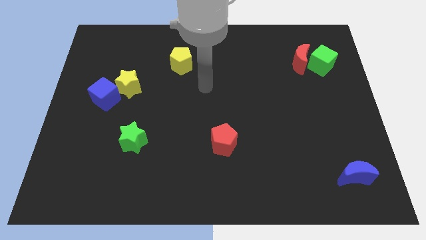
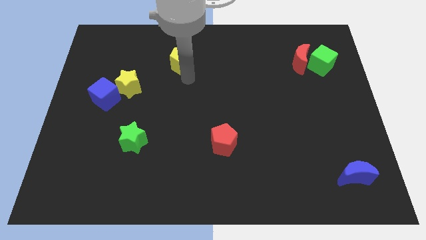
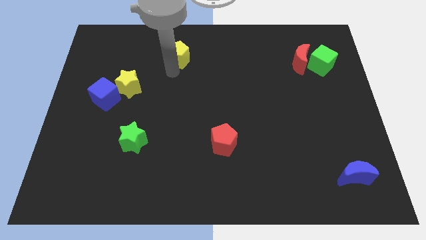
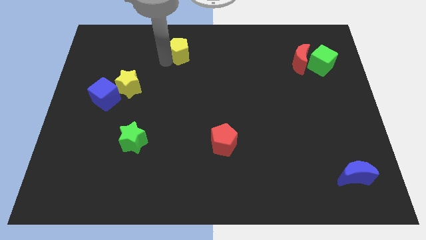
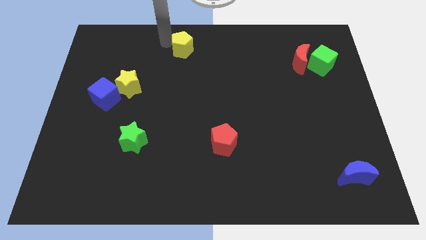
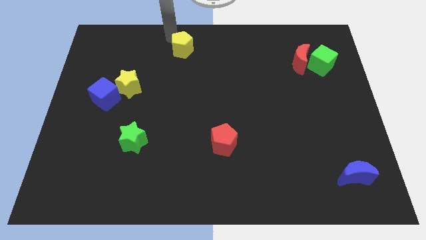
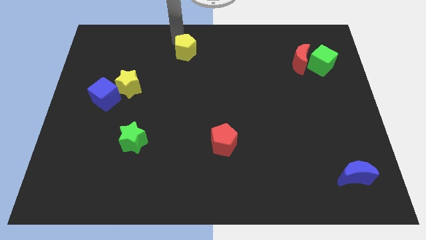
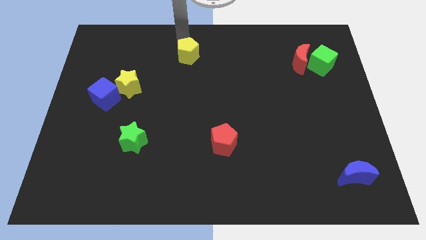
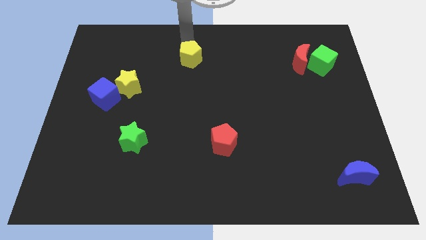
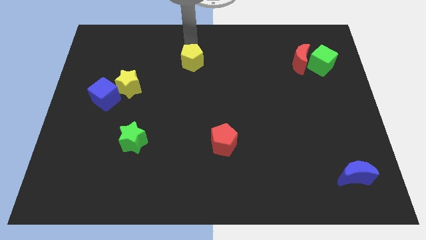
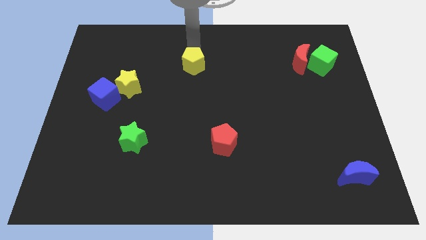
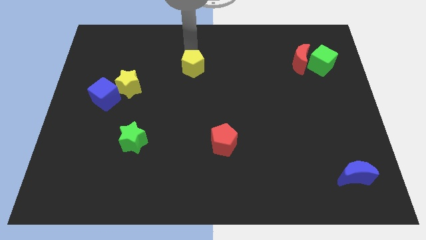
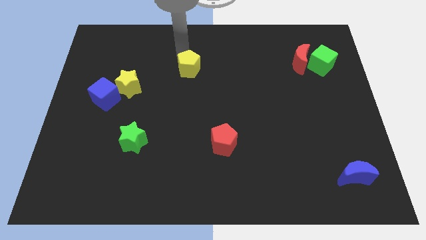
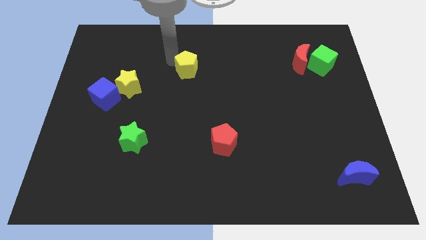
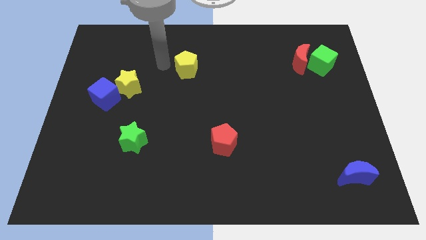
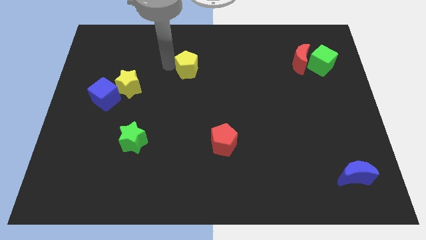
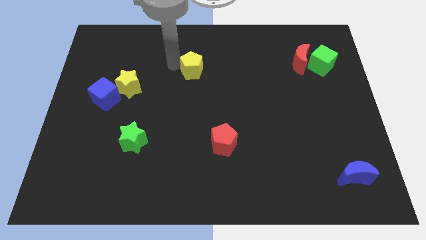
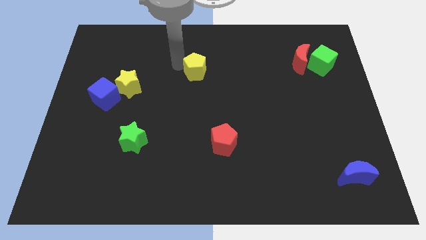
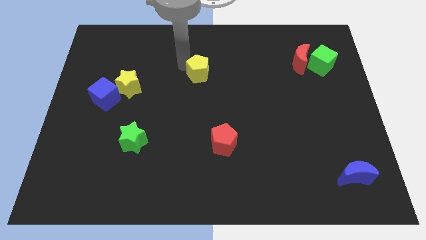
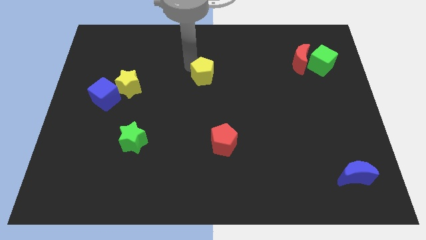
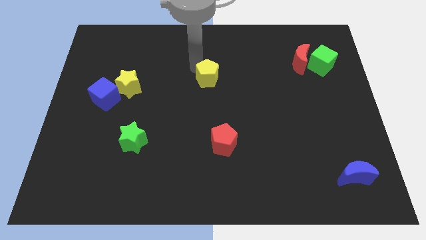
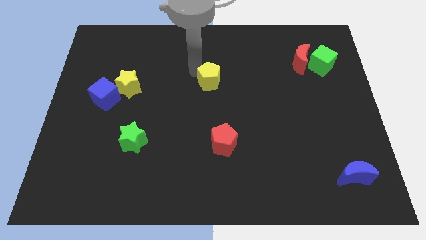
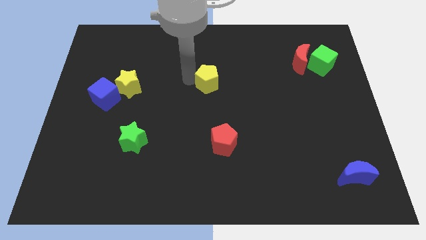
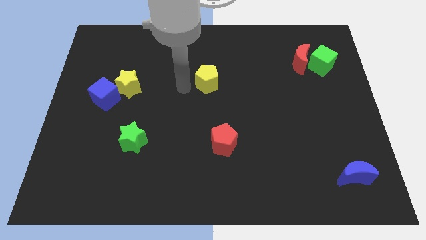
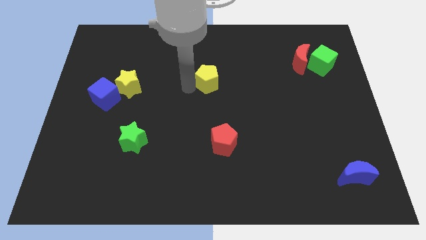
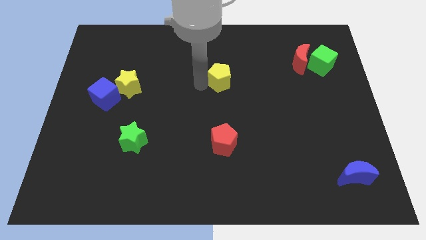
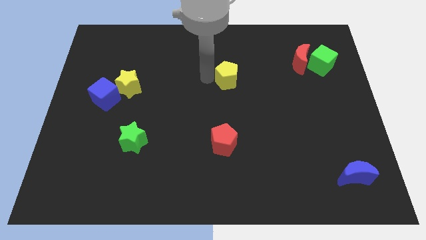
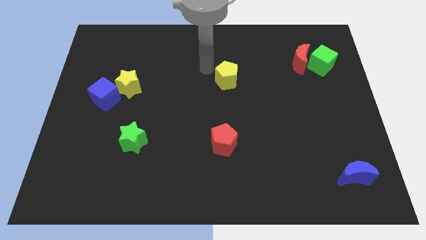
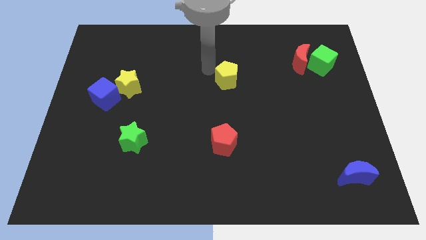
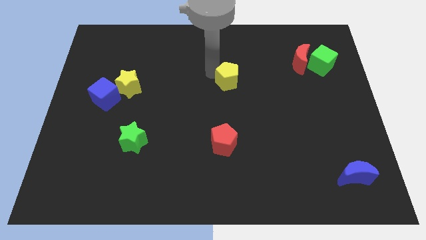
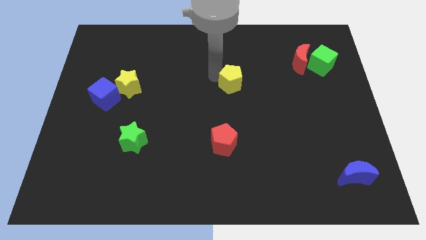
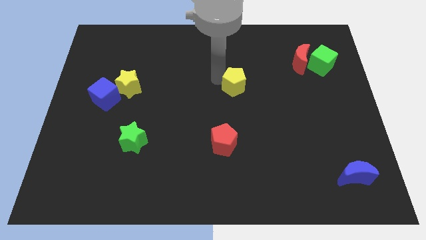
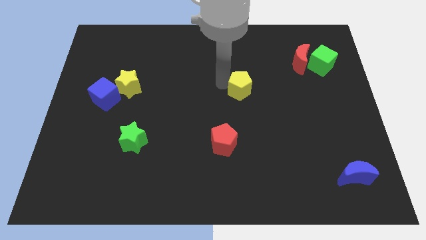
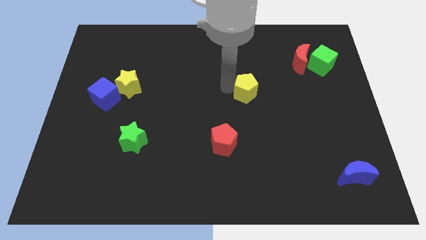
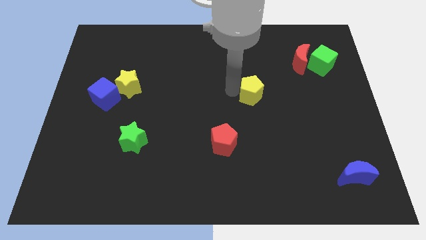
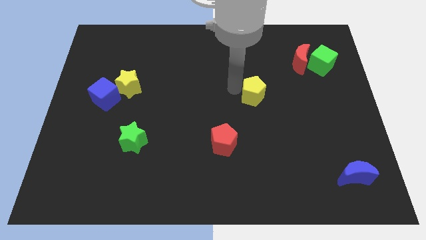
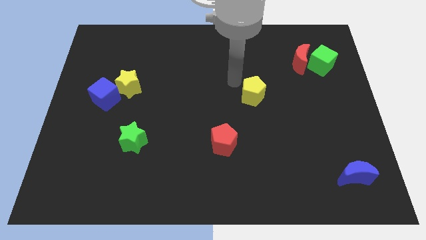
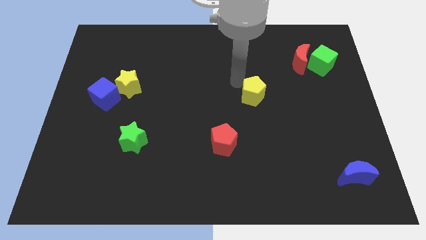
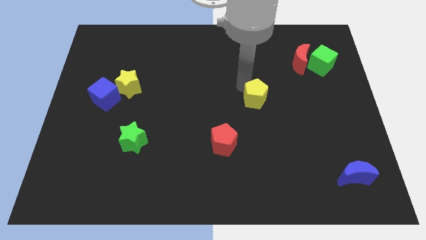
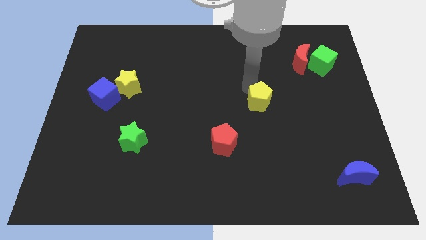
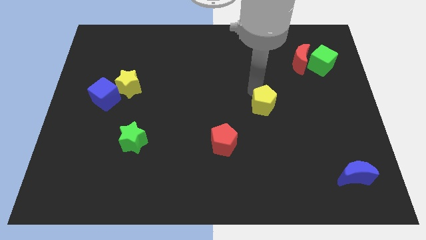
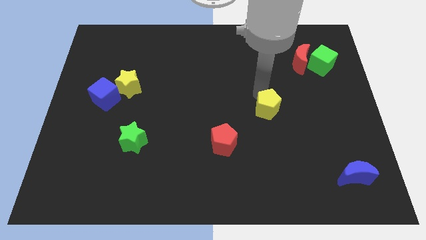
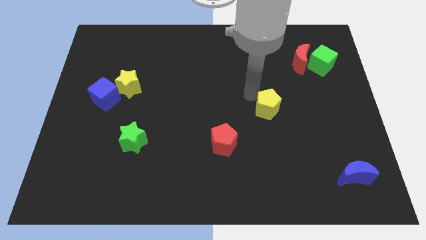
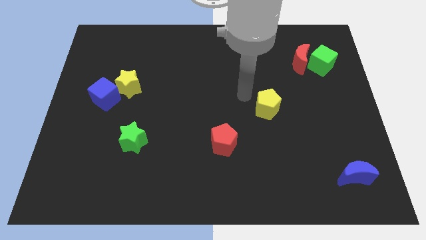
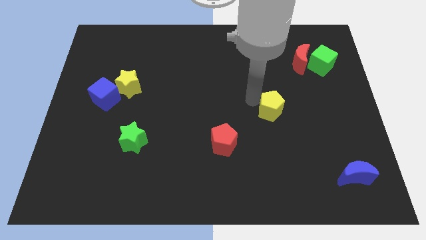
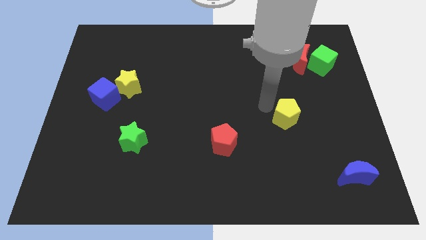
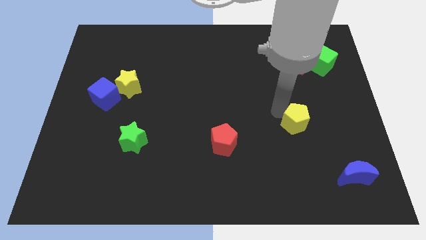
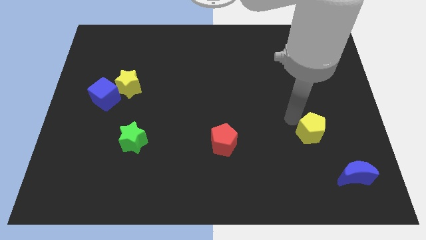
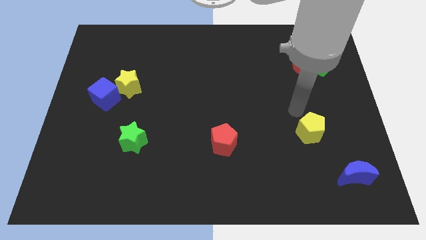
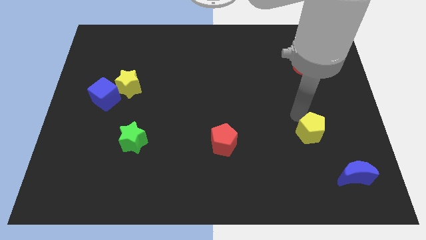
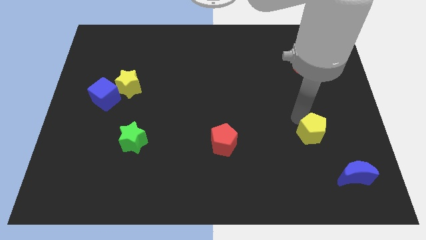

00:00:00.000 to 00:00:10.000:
slide the yellow pentagon diagonally up and to the left of the blue moon

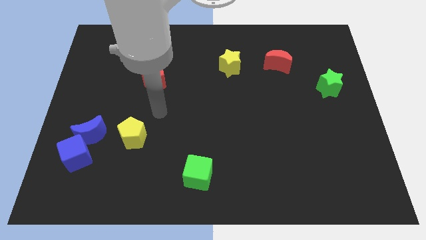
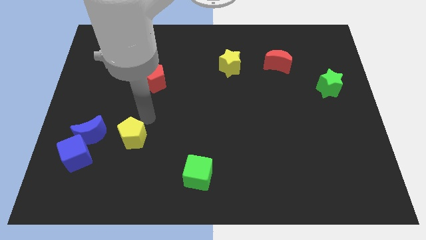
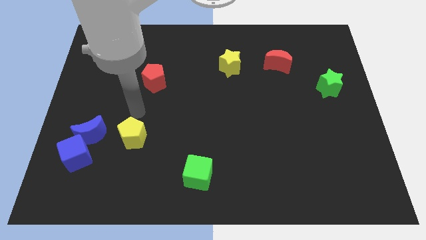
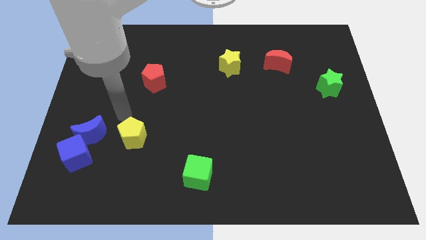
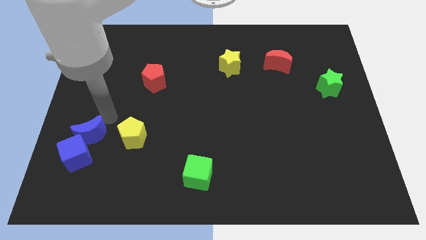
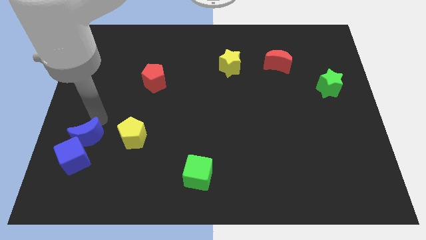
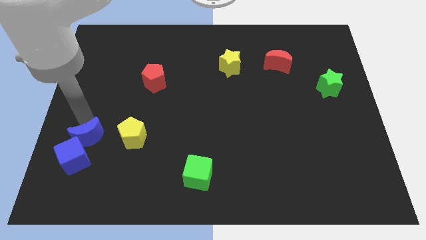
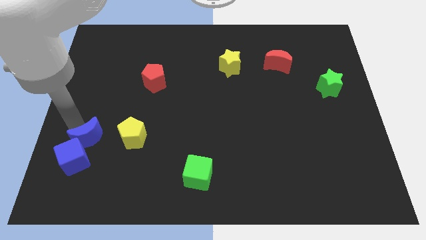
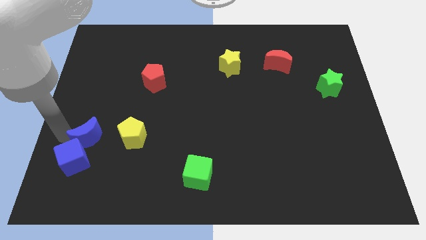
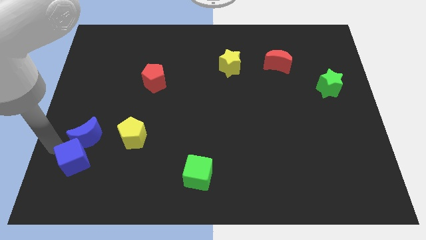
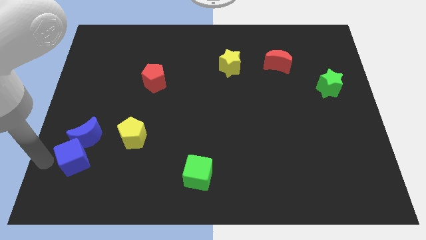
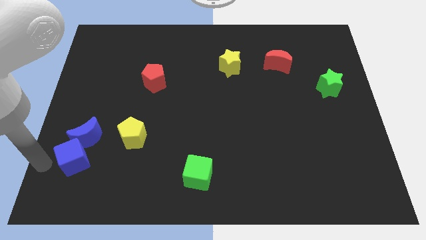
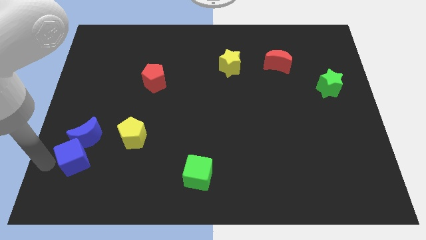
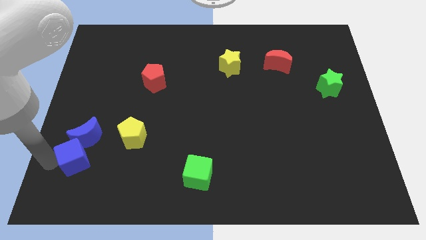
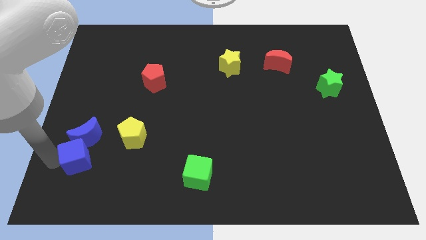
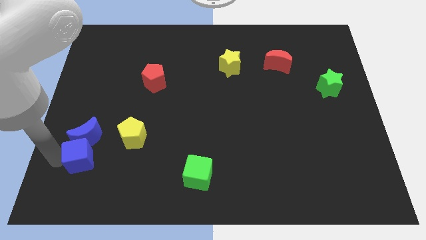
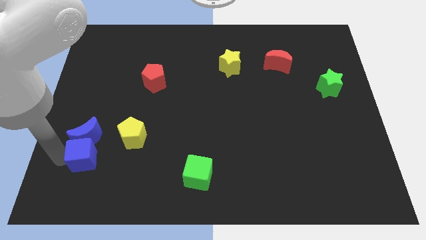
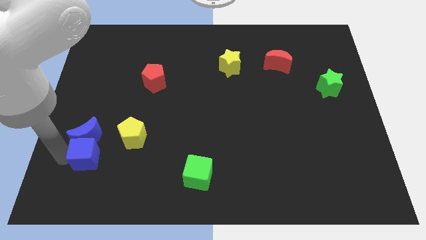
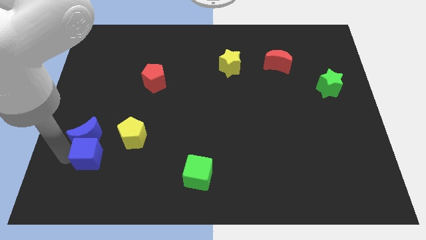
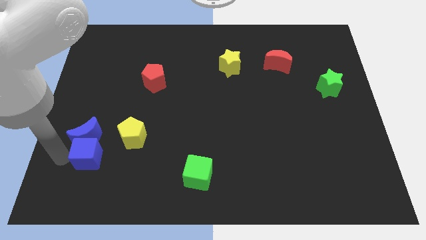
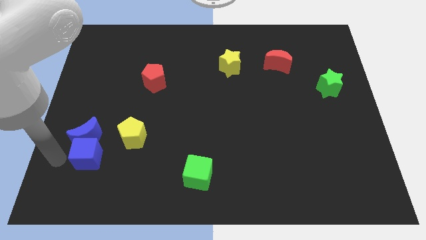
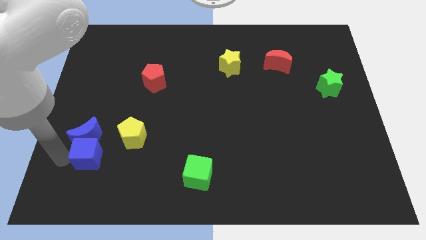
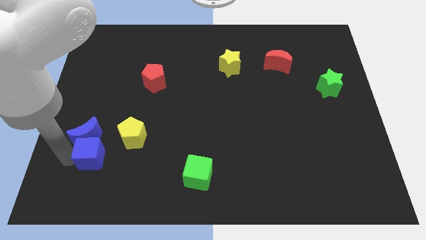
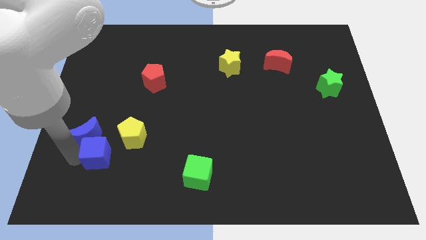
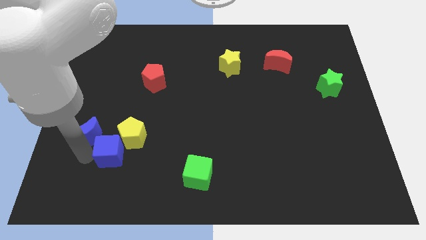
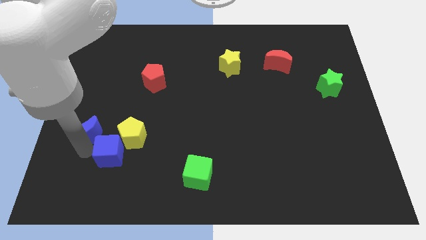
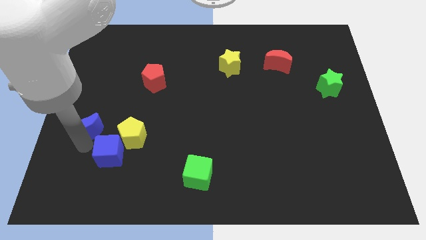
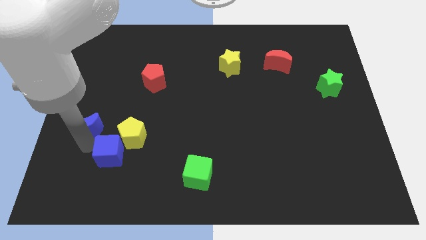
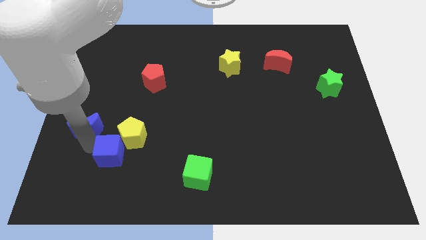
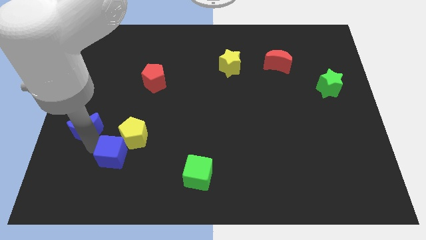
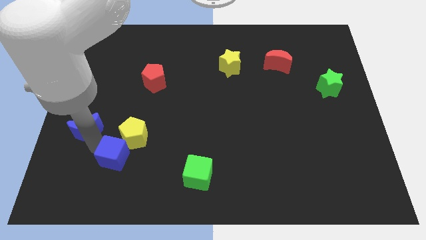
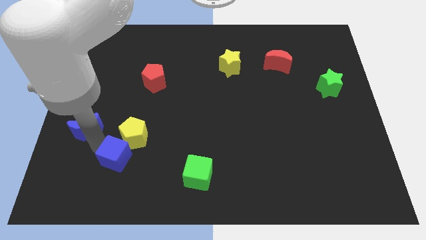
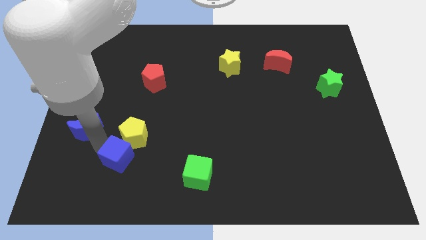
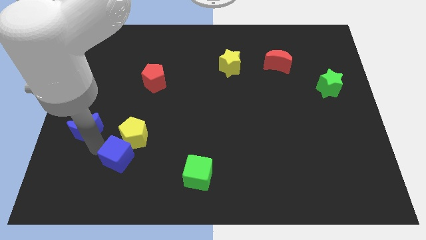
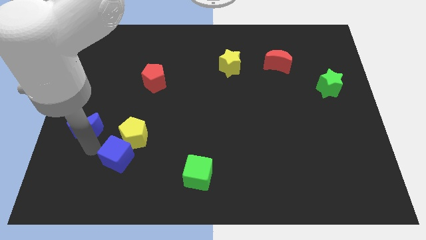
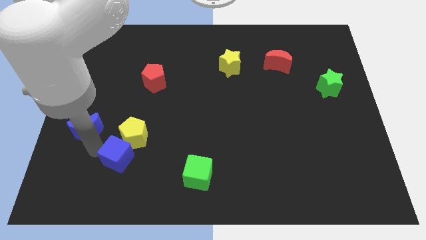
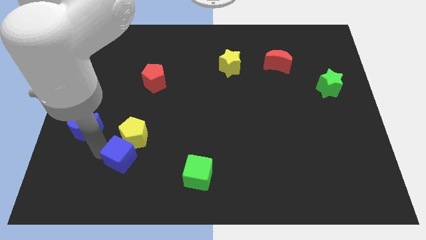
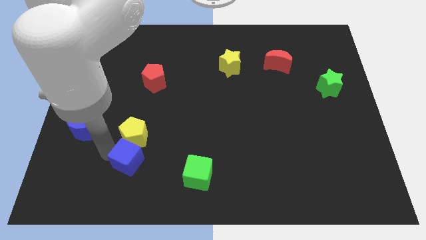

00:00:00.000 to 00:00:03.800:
push the blue cube just left of the green cube
